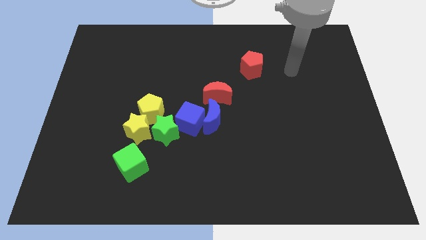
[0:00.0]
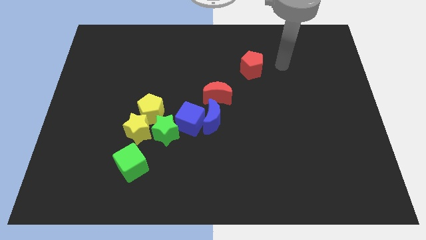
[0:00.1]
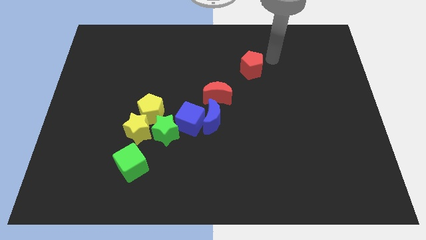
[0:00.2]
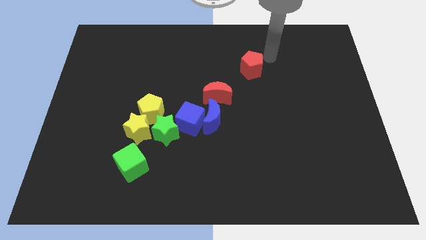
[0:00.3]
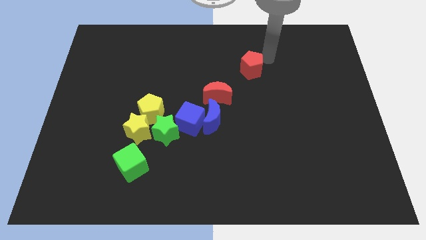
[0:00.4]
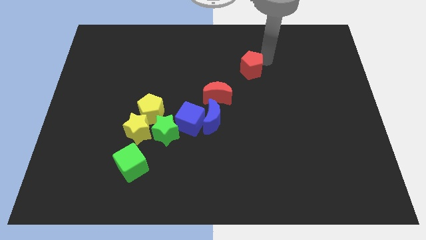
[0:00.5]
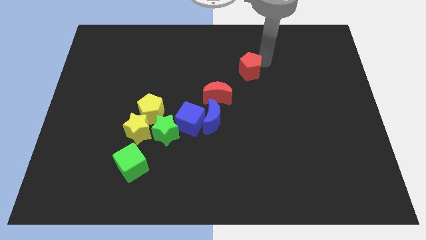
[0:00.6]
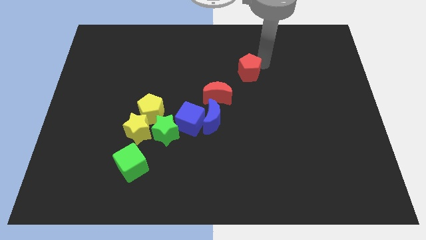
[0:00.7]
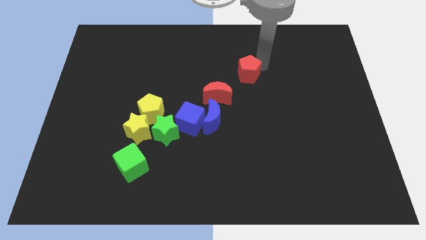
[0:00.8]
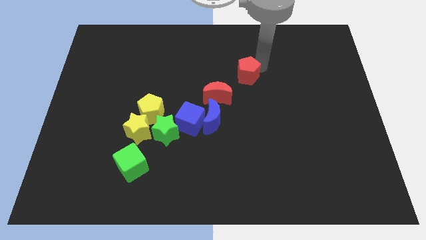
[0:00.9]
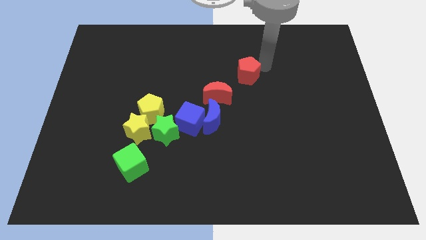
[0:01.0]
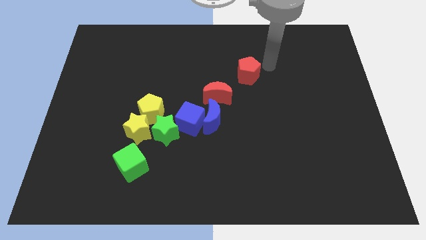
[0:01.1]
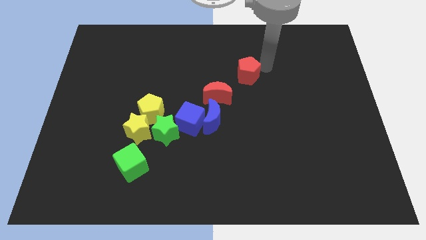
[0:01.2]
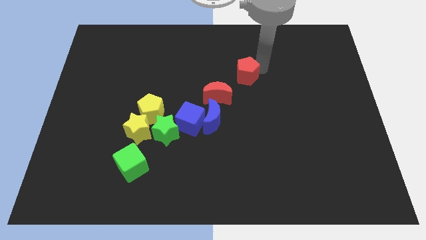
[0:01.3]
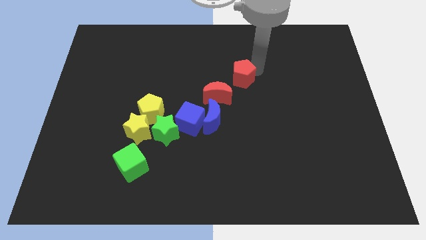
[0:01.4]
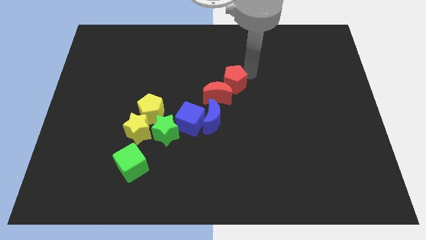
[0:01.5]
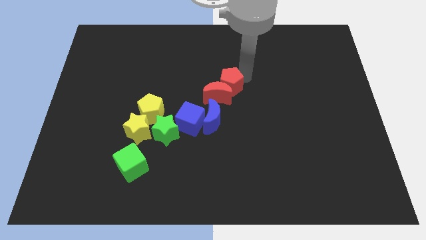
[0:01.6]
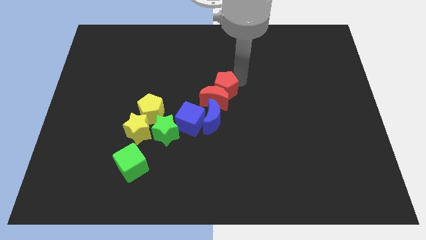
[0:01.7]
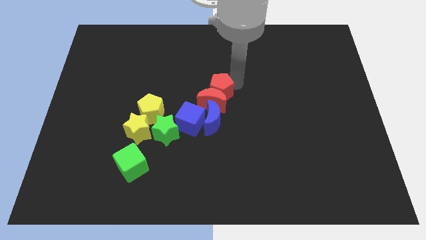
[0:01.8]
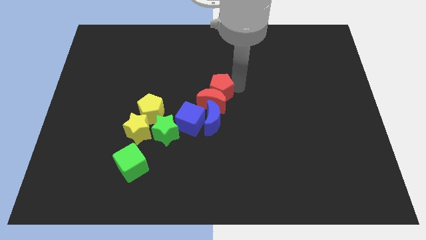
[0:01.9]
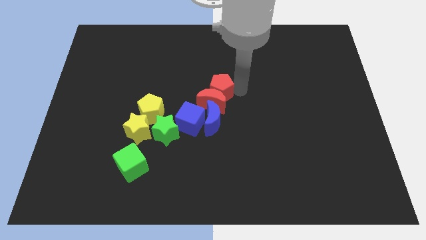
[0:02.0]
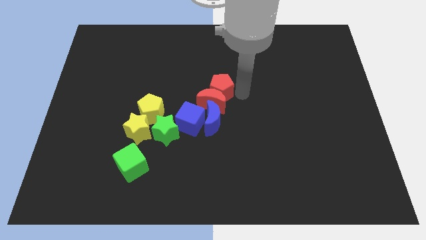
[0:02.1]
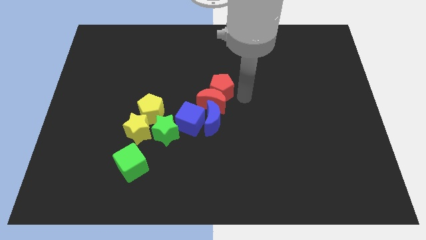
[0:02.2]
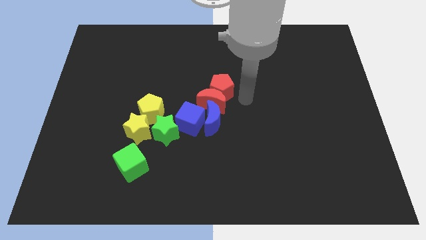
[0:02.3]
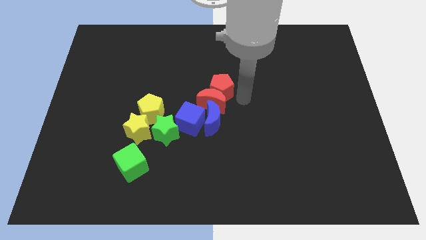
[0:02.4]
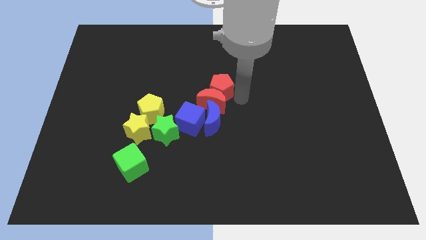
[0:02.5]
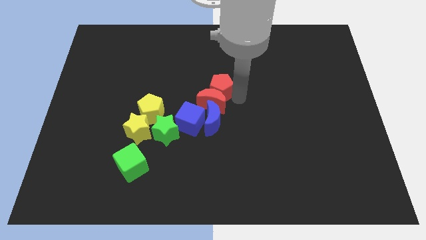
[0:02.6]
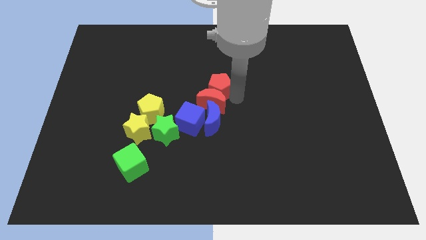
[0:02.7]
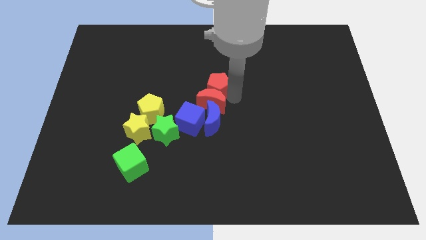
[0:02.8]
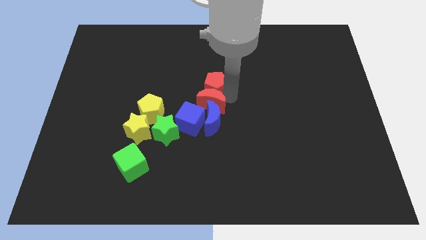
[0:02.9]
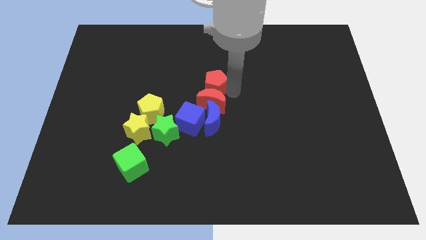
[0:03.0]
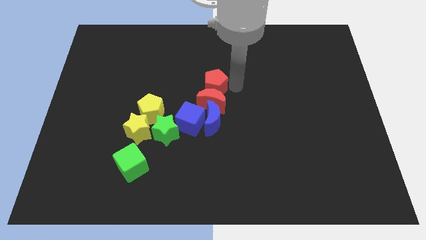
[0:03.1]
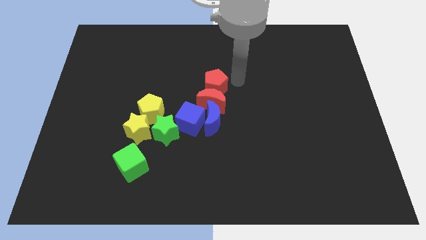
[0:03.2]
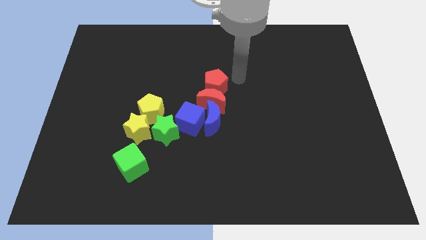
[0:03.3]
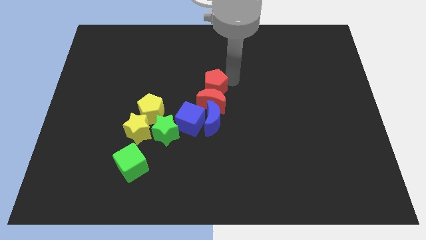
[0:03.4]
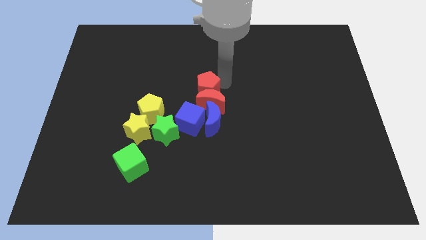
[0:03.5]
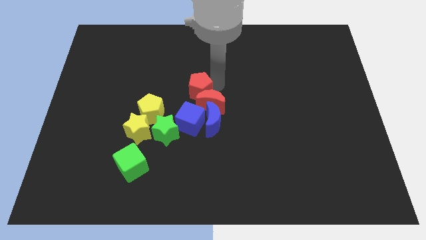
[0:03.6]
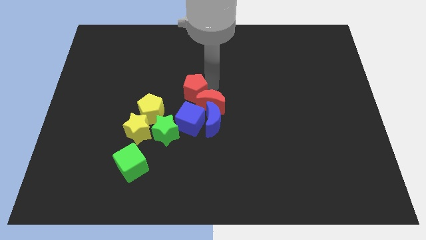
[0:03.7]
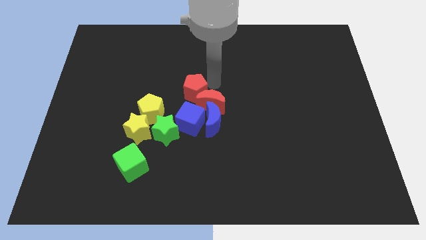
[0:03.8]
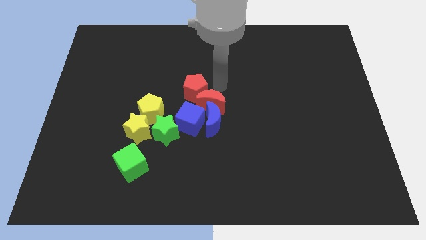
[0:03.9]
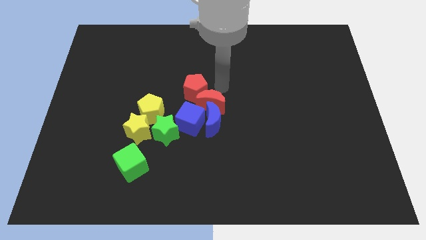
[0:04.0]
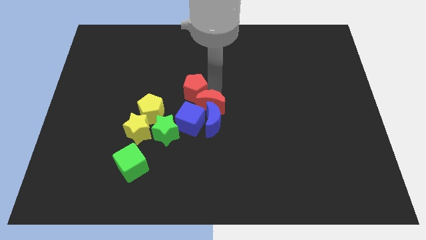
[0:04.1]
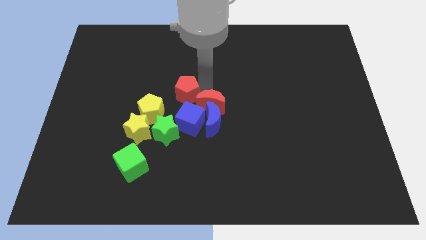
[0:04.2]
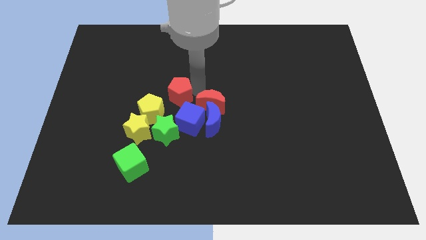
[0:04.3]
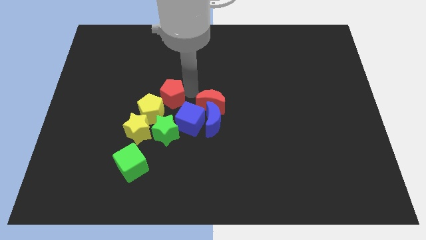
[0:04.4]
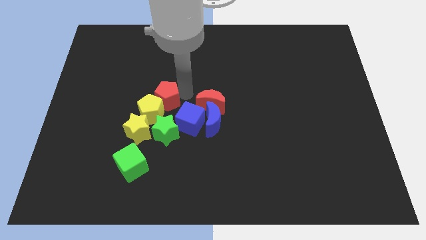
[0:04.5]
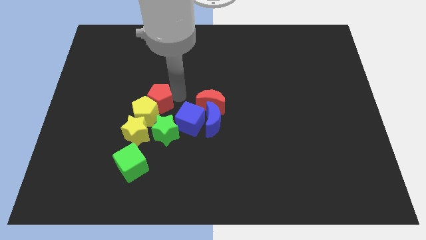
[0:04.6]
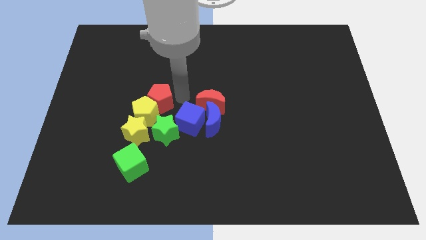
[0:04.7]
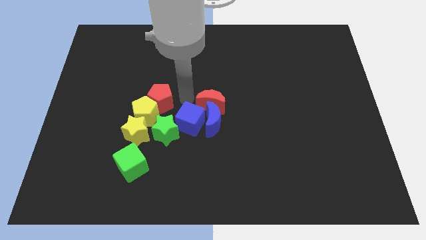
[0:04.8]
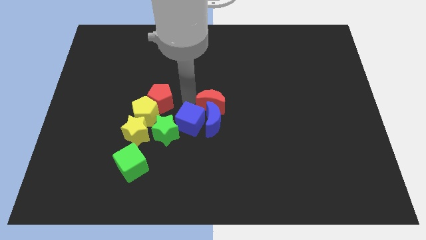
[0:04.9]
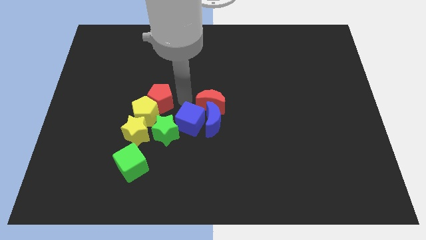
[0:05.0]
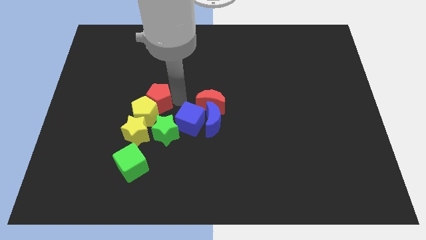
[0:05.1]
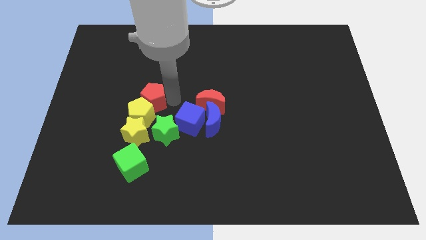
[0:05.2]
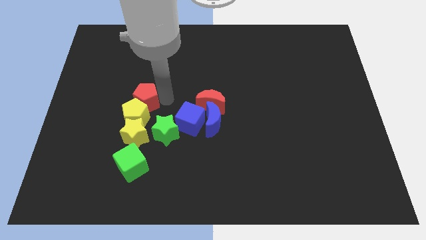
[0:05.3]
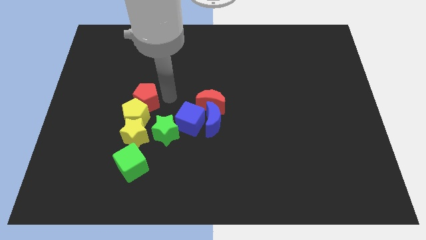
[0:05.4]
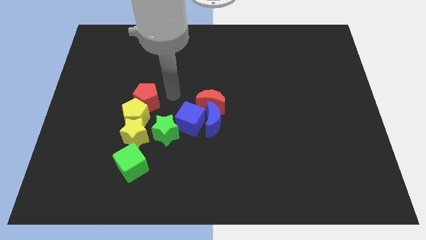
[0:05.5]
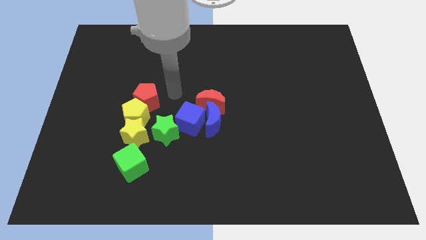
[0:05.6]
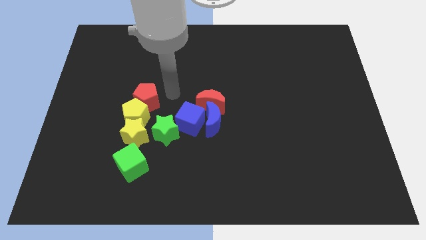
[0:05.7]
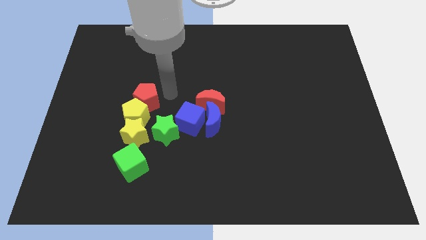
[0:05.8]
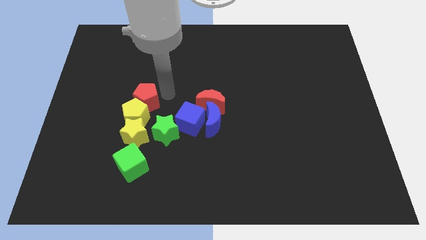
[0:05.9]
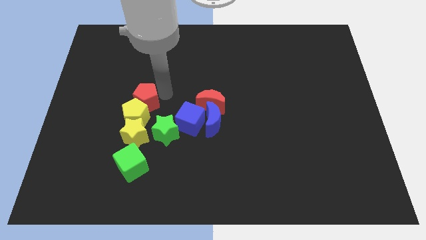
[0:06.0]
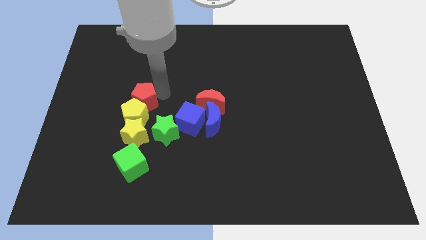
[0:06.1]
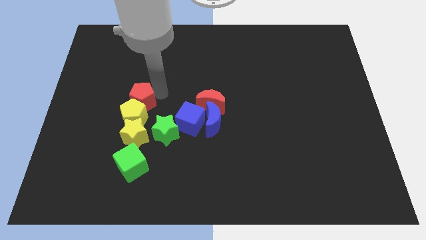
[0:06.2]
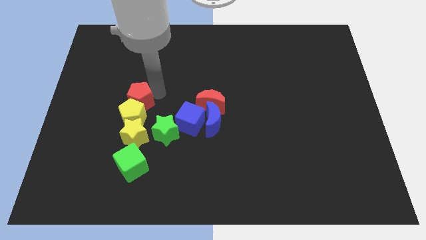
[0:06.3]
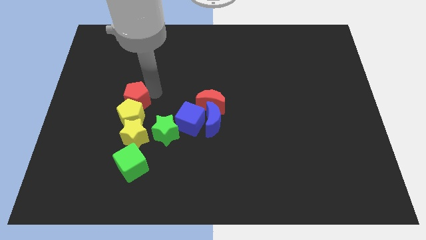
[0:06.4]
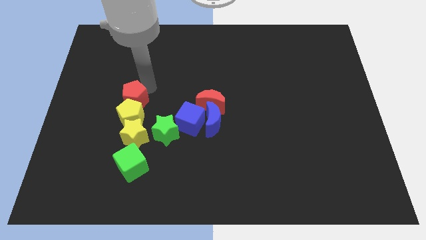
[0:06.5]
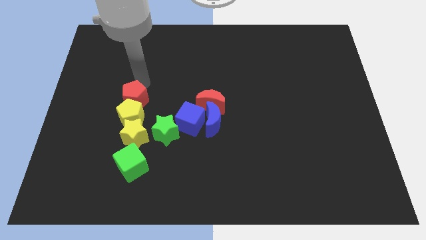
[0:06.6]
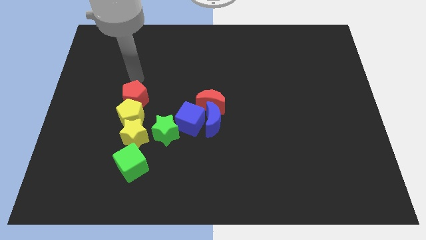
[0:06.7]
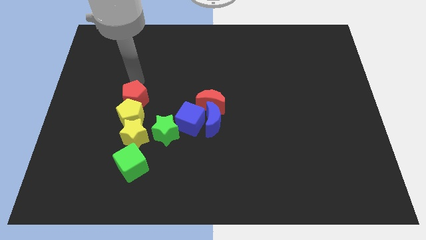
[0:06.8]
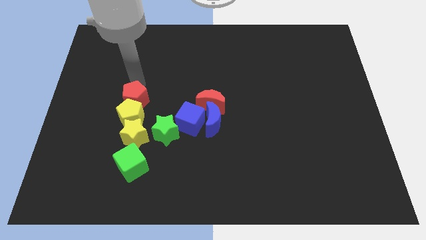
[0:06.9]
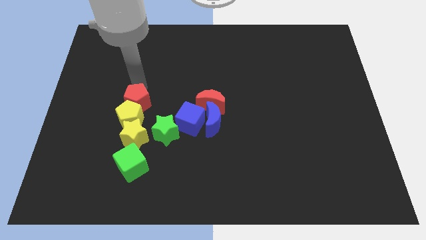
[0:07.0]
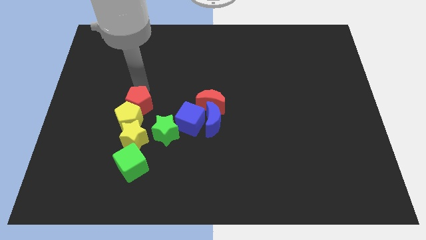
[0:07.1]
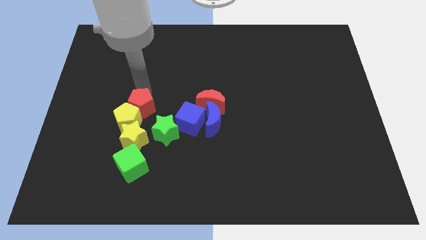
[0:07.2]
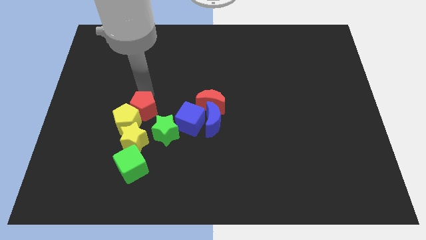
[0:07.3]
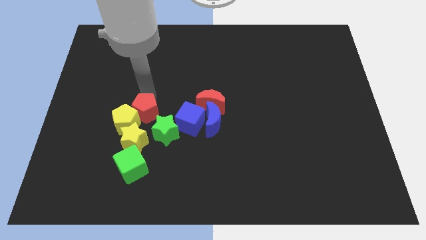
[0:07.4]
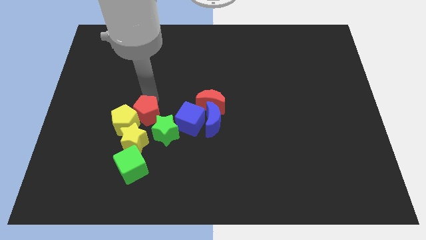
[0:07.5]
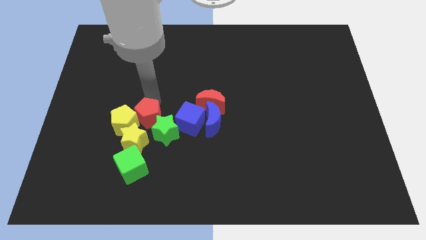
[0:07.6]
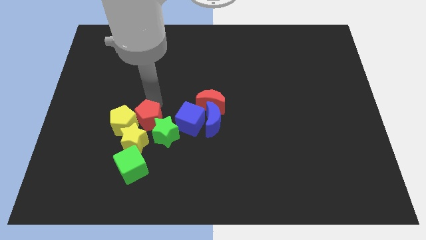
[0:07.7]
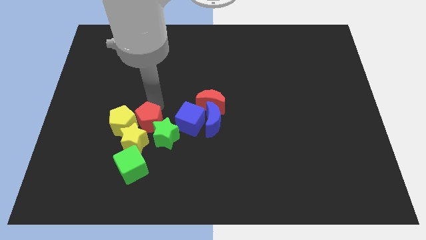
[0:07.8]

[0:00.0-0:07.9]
push the red pentagon to the yellow star
